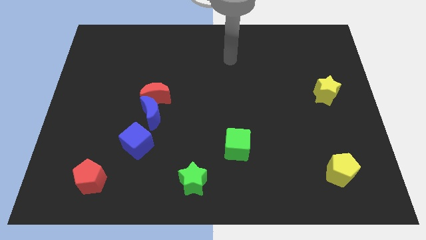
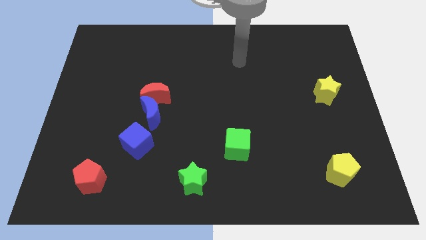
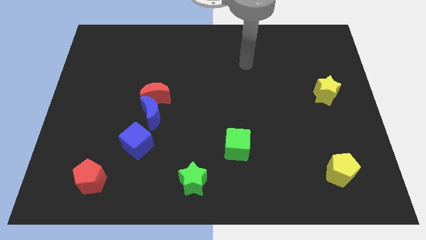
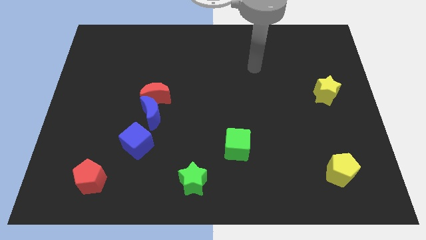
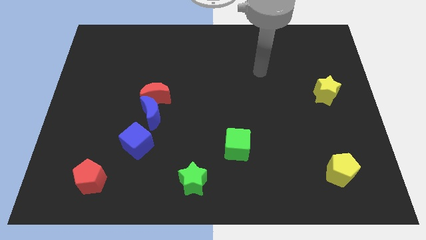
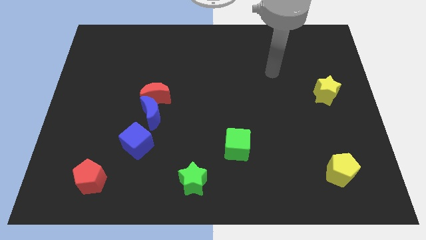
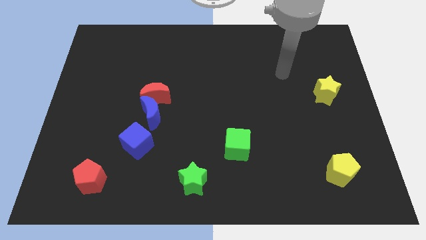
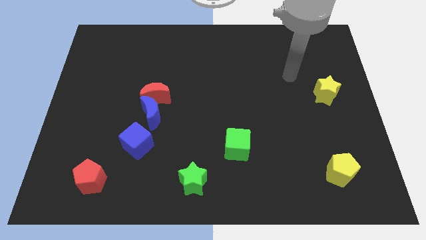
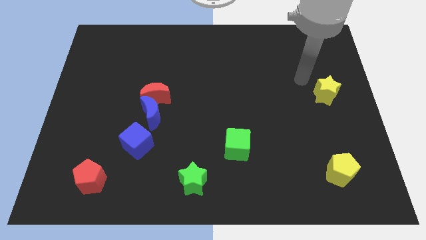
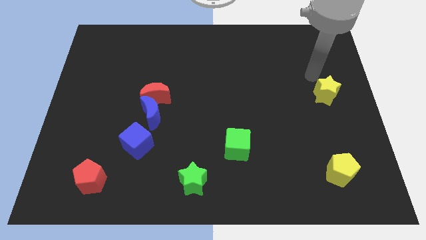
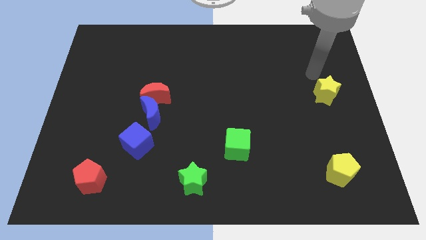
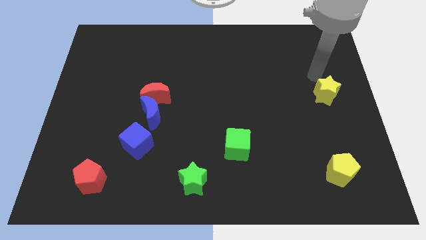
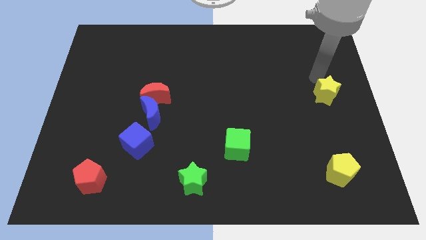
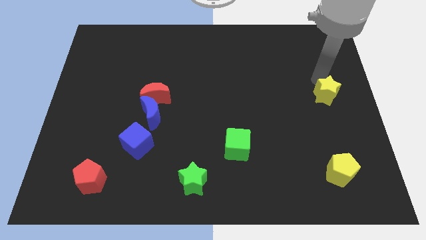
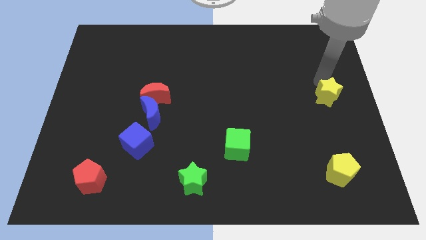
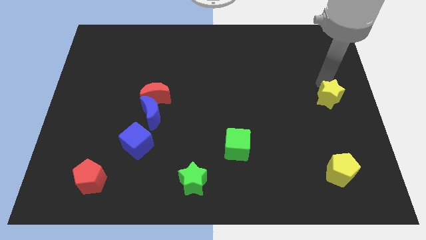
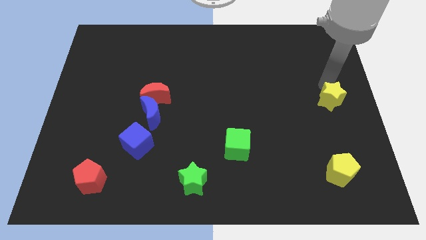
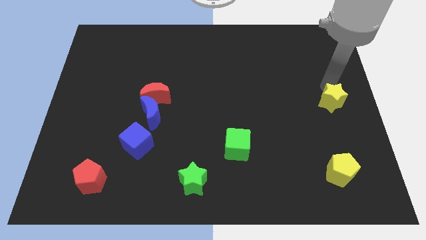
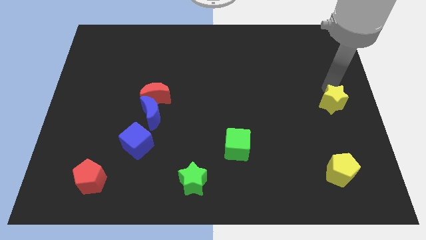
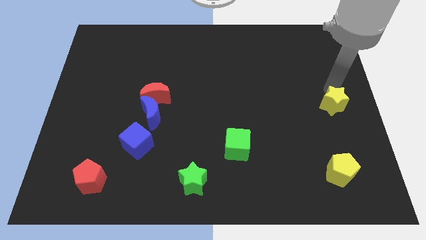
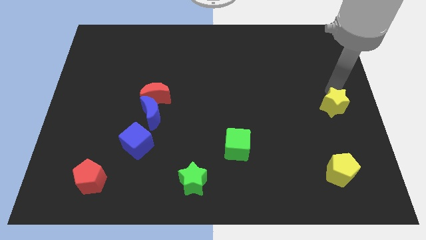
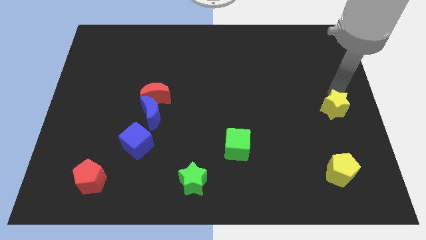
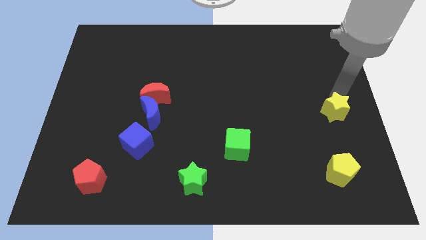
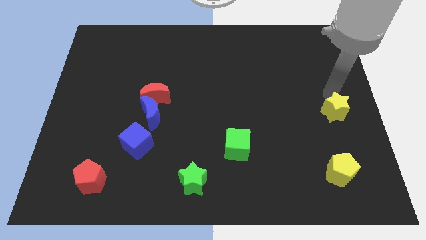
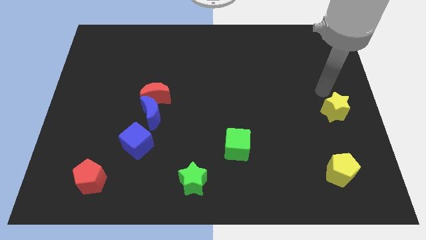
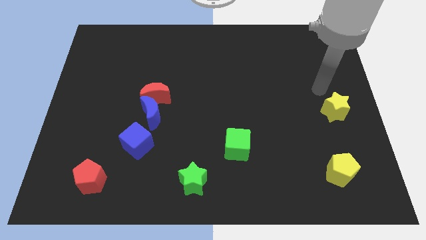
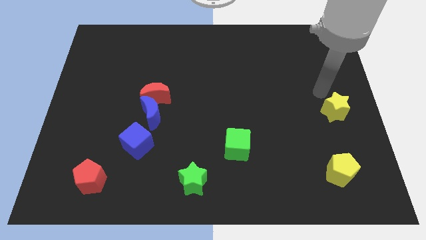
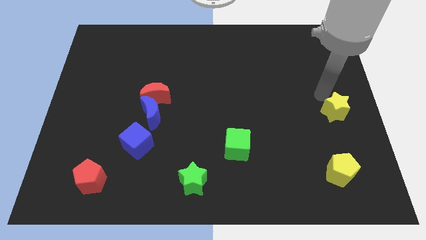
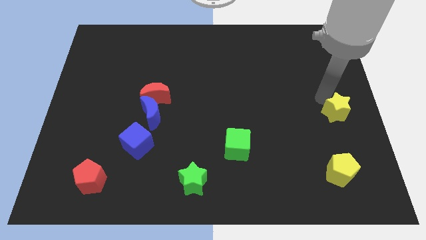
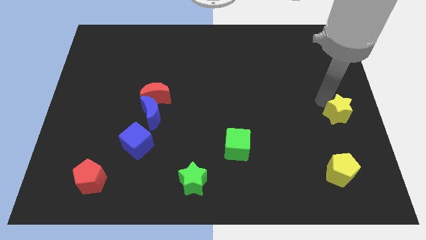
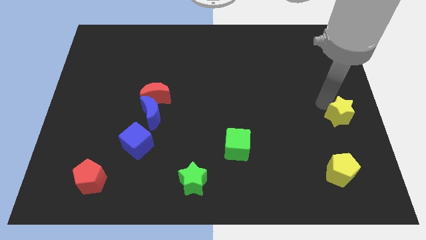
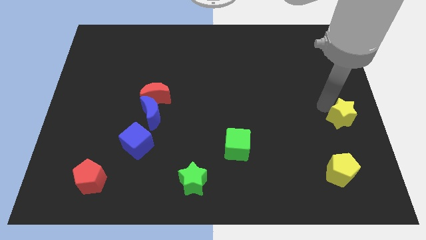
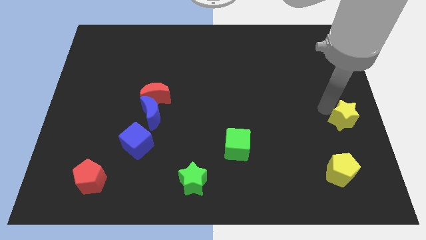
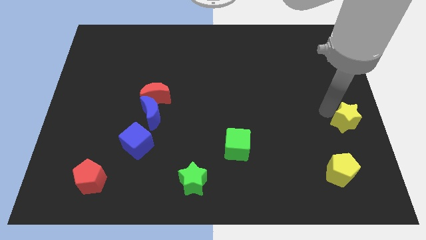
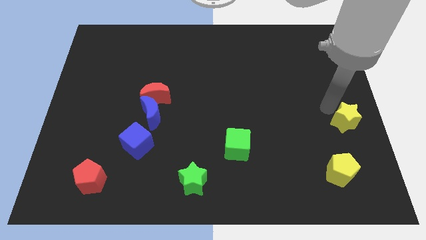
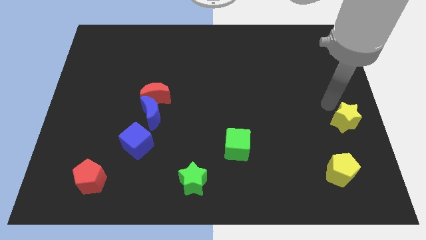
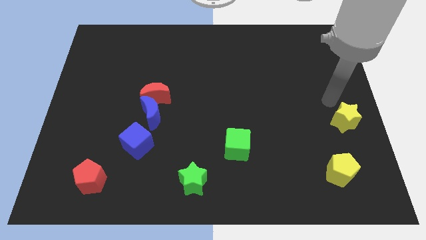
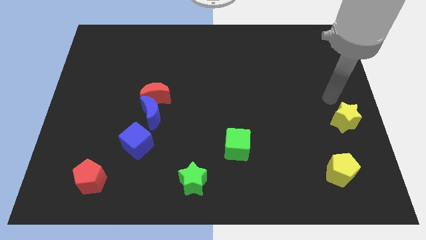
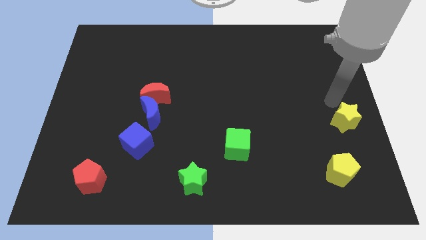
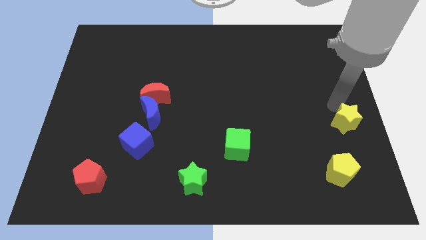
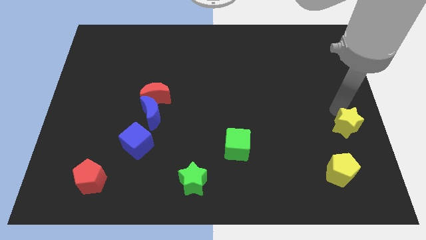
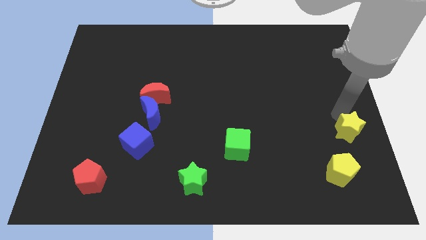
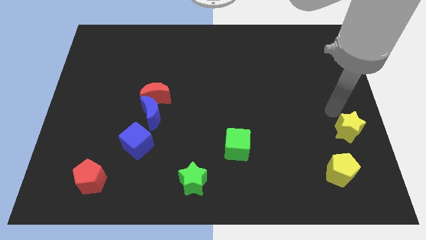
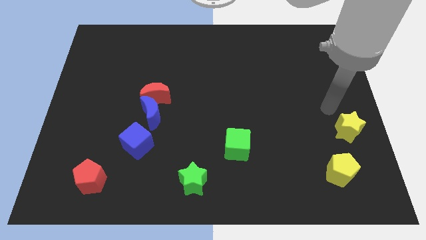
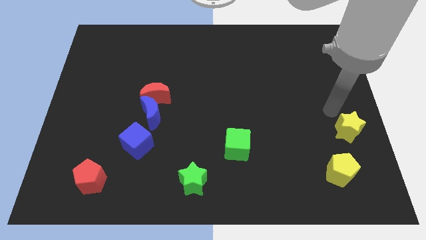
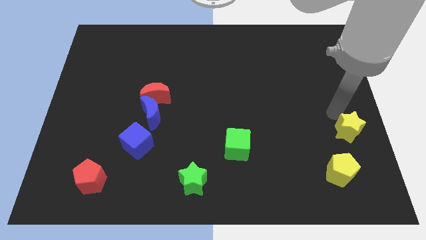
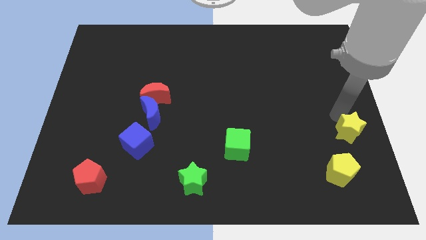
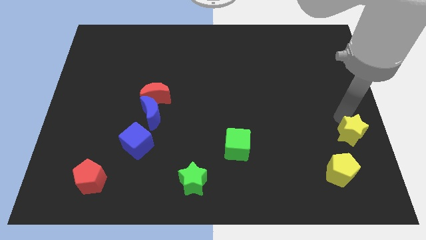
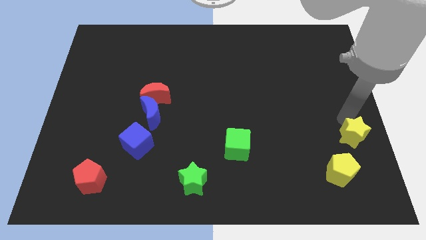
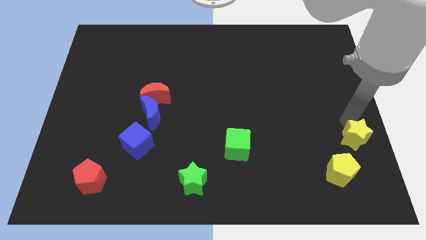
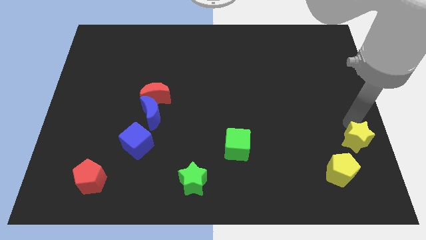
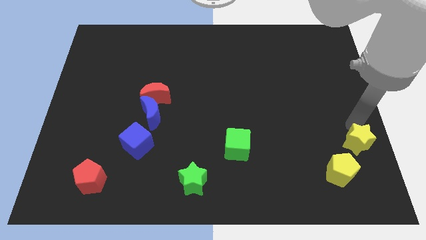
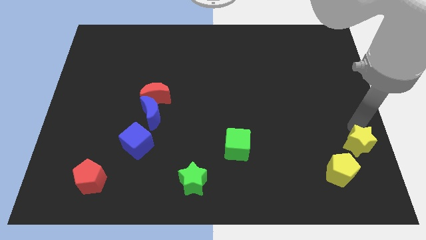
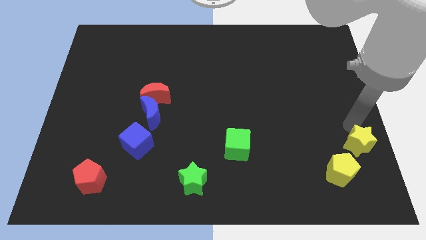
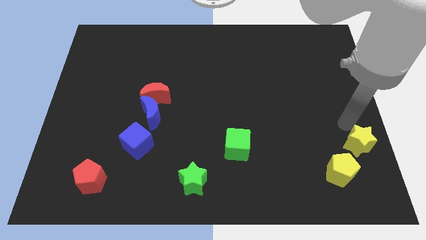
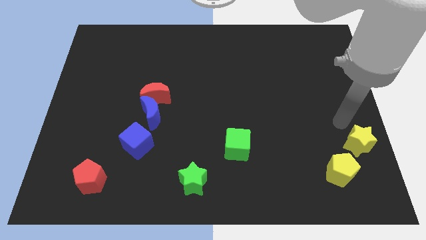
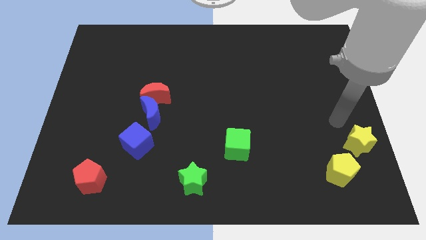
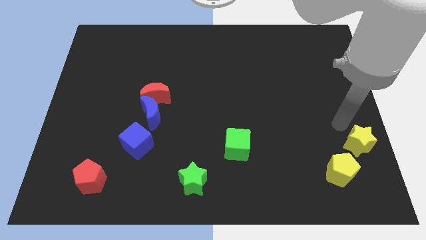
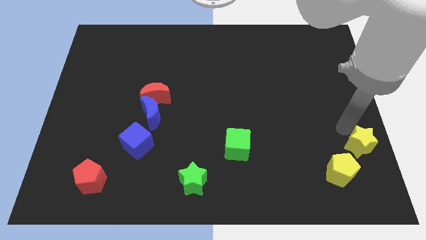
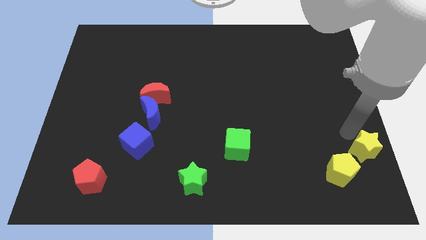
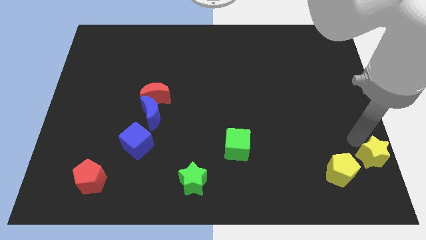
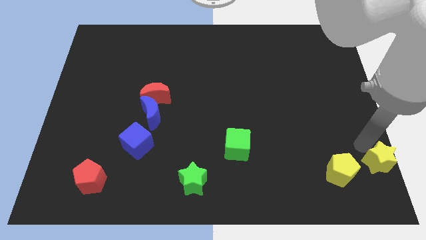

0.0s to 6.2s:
move the yellow star to the lower right corner

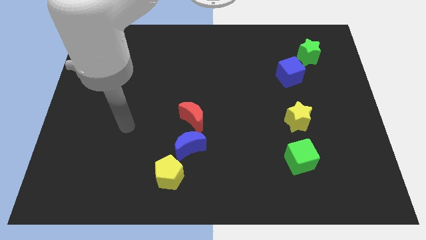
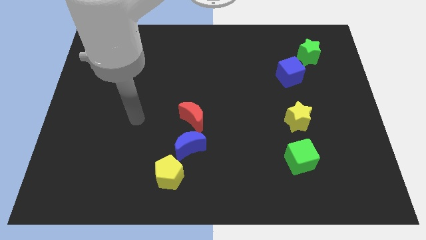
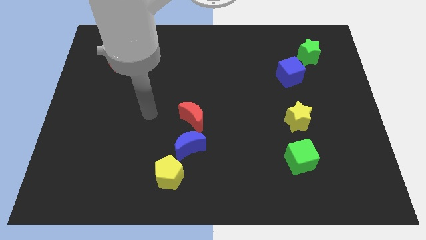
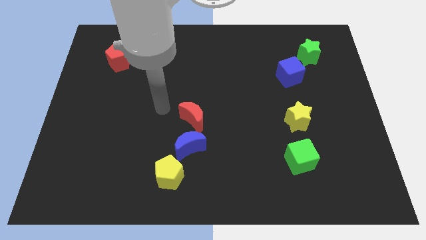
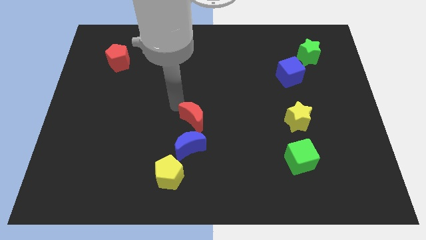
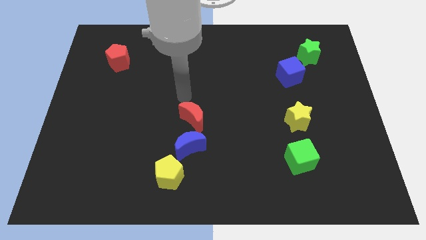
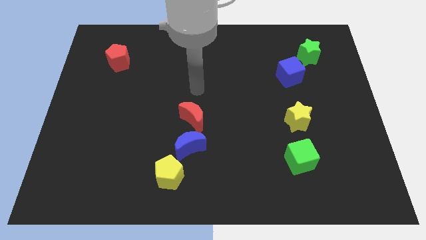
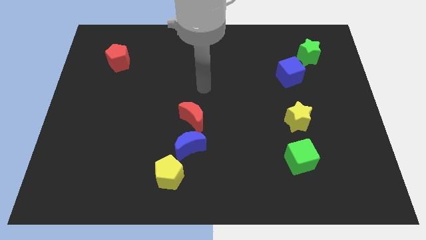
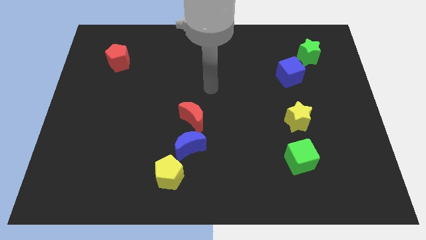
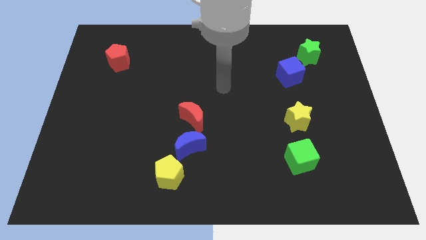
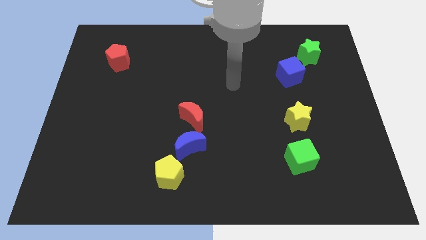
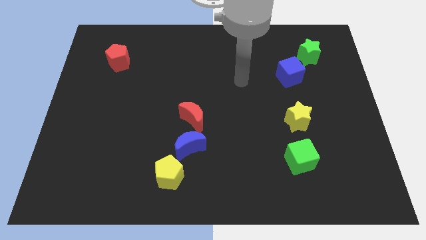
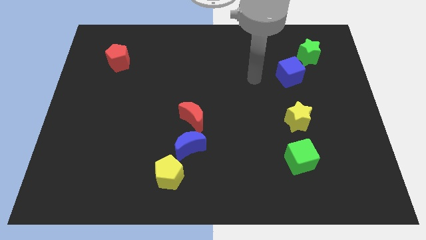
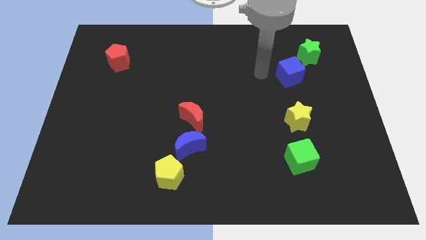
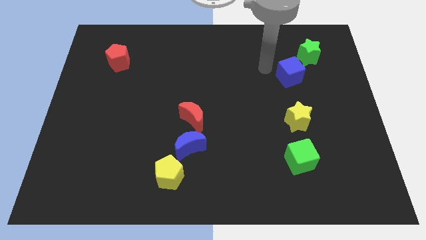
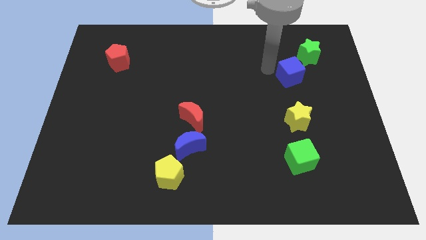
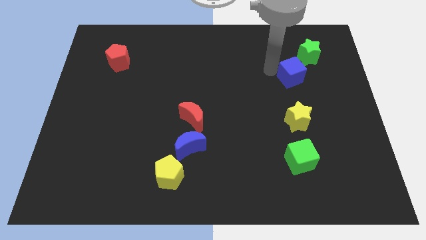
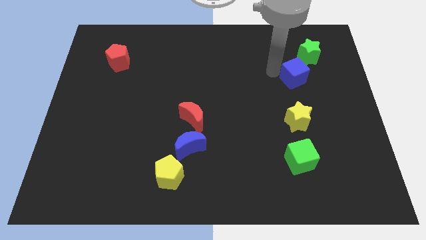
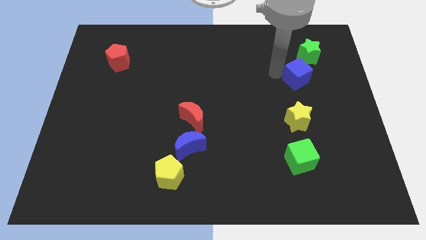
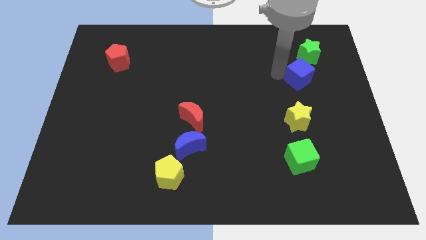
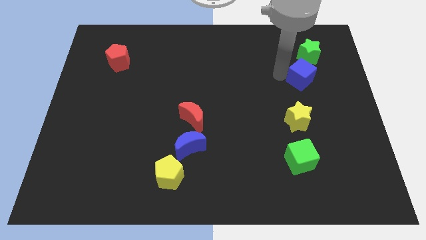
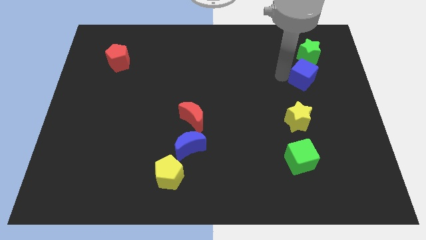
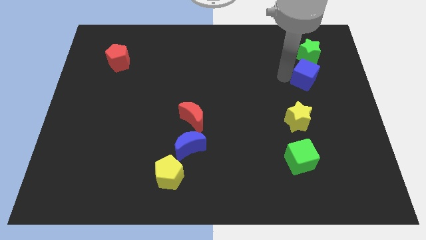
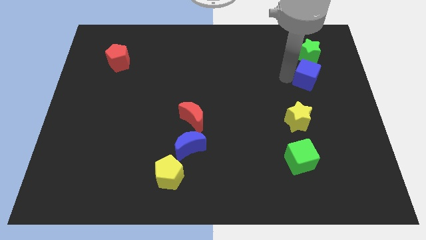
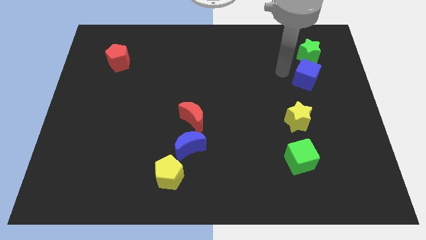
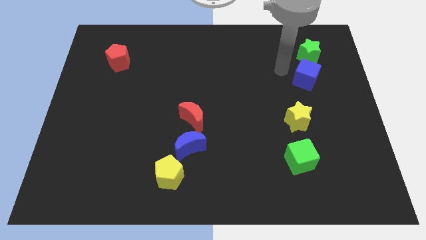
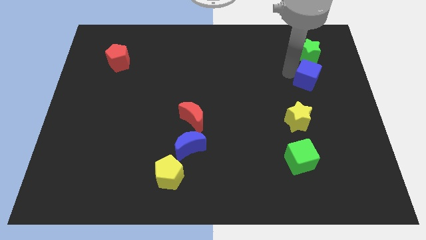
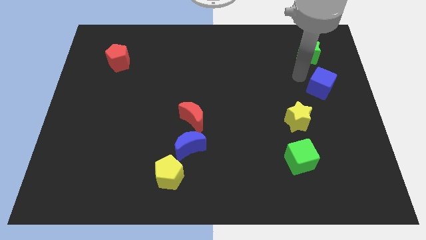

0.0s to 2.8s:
slide the blue cube to the right side
